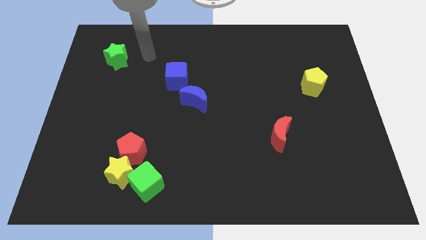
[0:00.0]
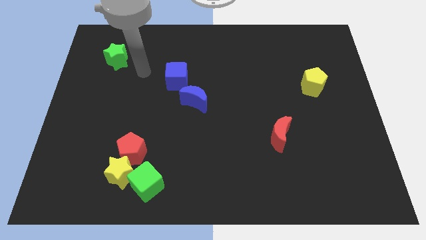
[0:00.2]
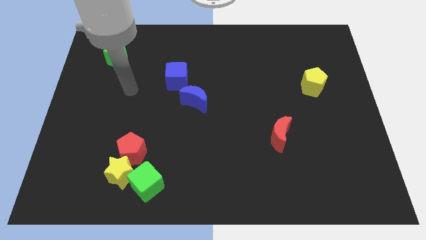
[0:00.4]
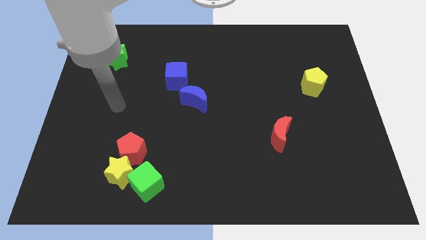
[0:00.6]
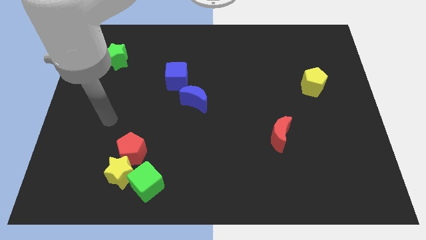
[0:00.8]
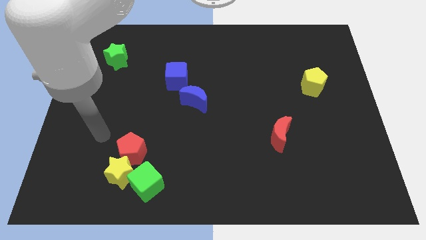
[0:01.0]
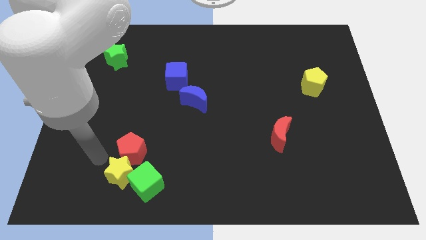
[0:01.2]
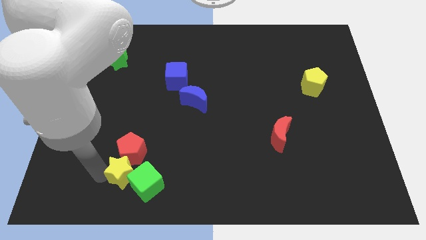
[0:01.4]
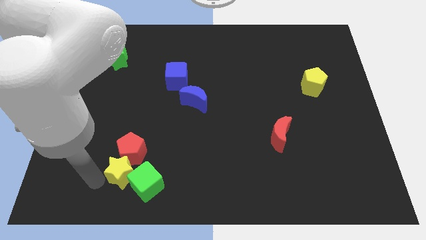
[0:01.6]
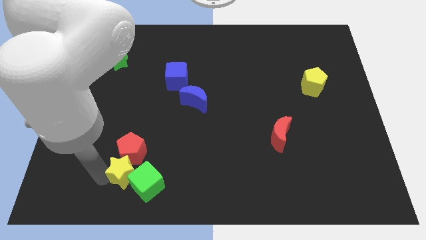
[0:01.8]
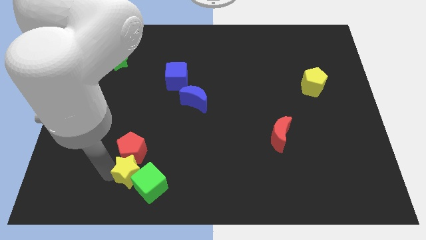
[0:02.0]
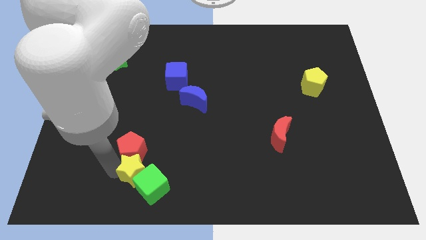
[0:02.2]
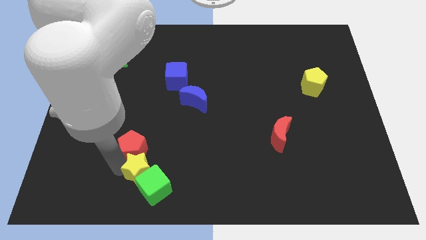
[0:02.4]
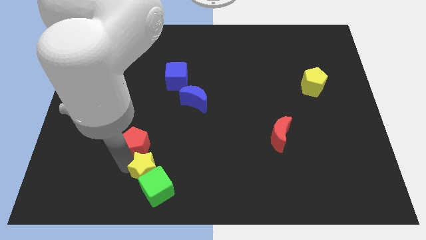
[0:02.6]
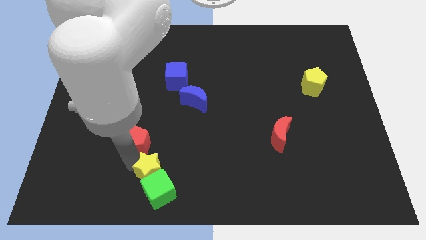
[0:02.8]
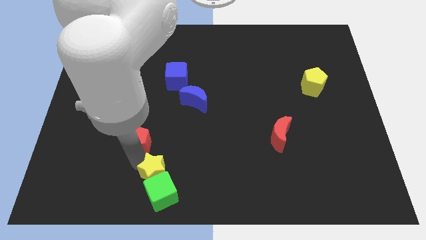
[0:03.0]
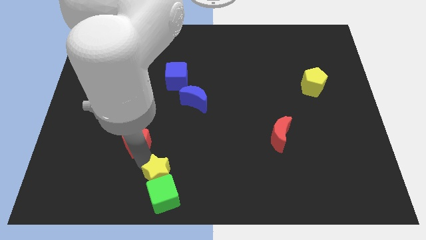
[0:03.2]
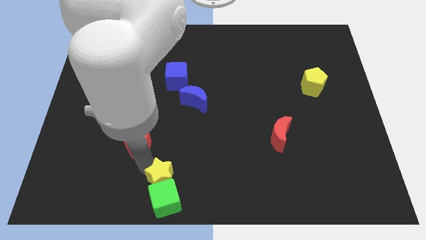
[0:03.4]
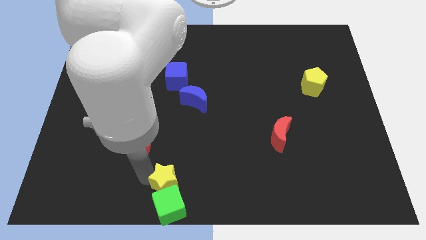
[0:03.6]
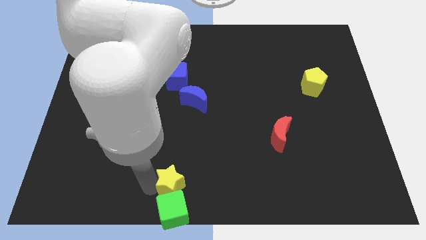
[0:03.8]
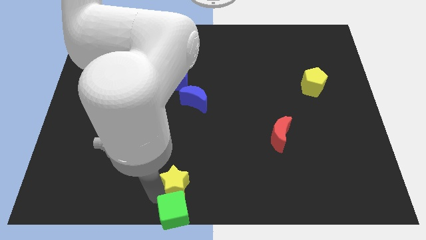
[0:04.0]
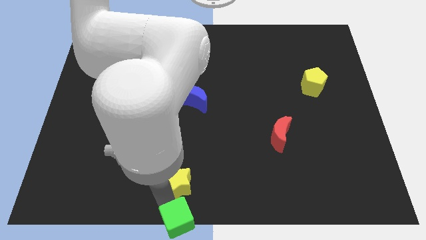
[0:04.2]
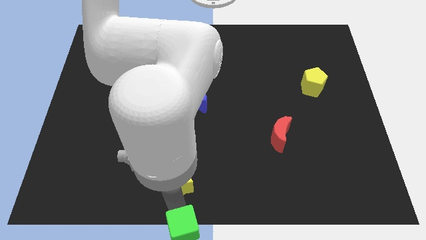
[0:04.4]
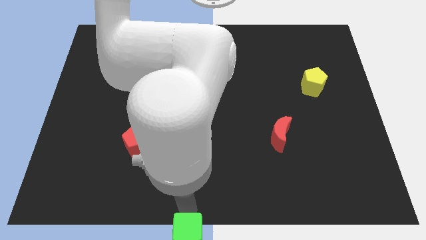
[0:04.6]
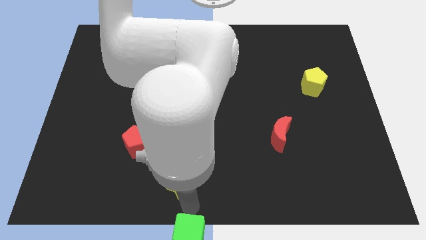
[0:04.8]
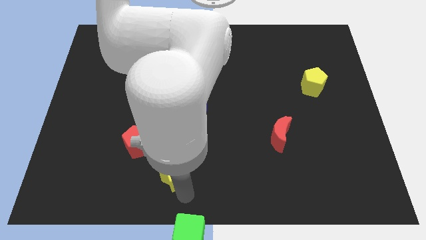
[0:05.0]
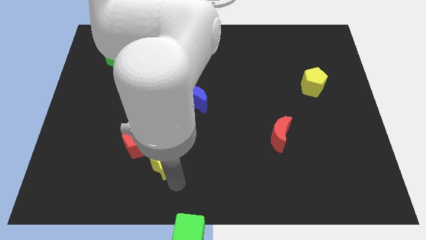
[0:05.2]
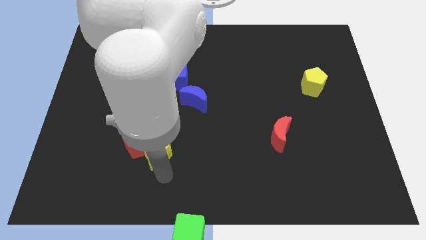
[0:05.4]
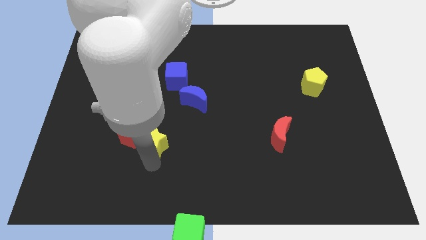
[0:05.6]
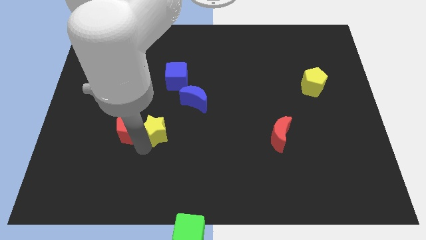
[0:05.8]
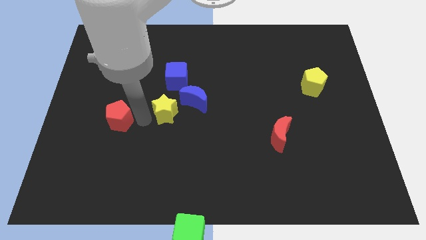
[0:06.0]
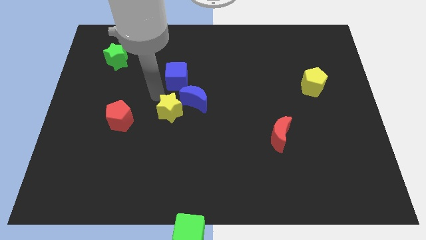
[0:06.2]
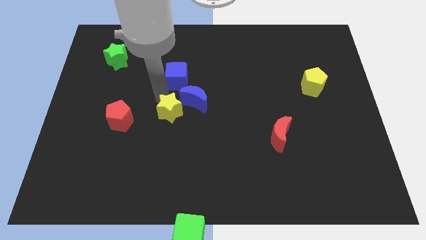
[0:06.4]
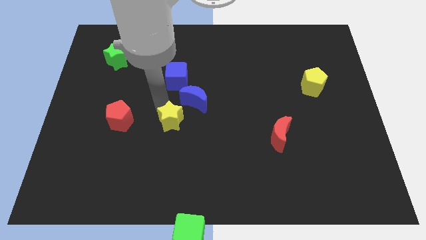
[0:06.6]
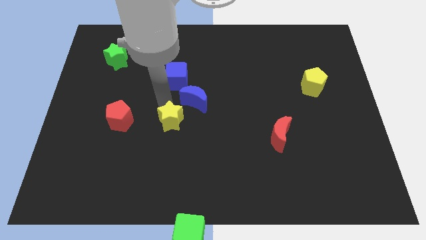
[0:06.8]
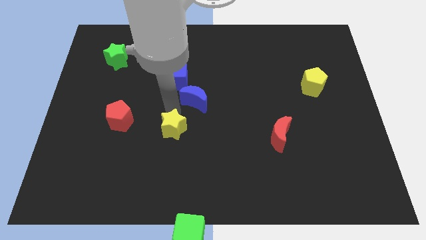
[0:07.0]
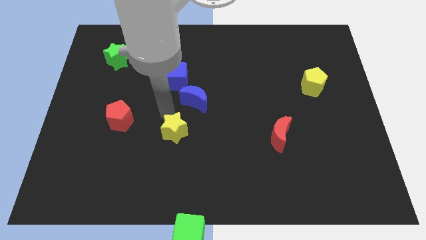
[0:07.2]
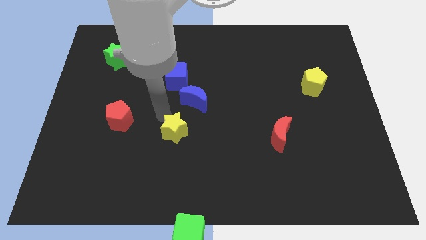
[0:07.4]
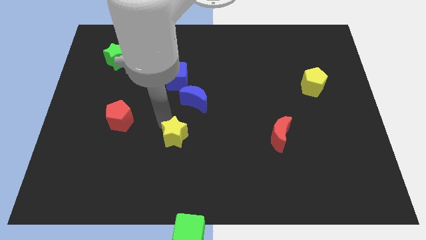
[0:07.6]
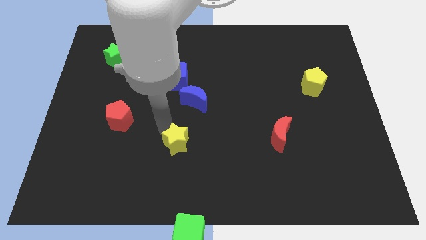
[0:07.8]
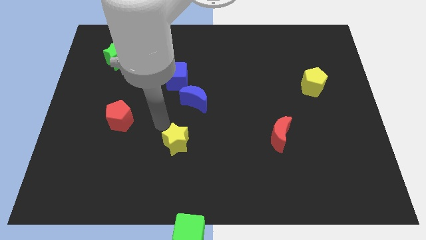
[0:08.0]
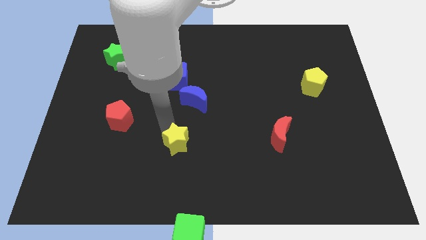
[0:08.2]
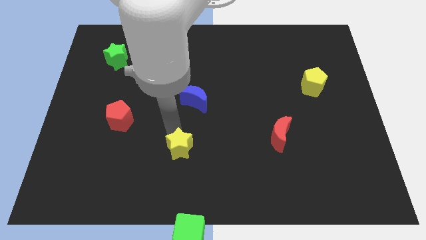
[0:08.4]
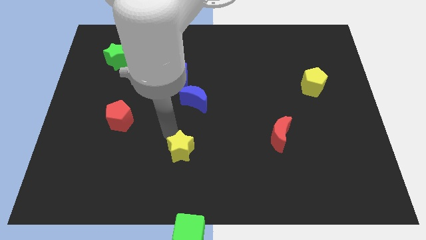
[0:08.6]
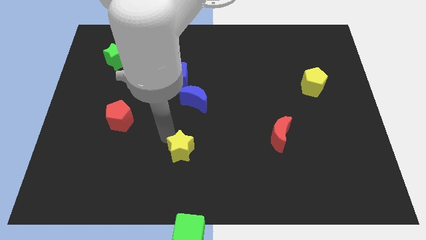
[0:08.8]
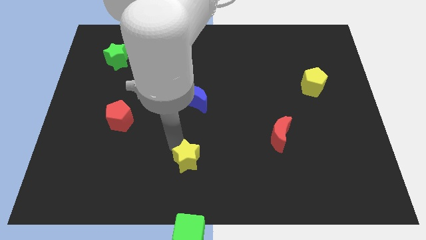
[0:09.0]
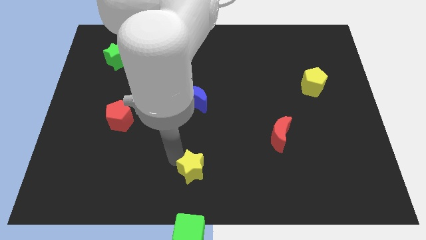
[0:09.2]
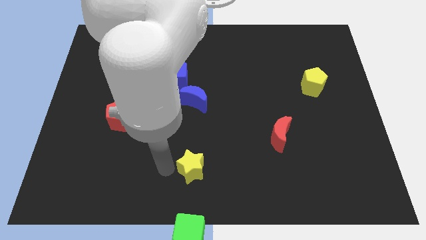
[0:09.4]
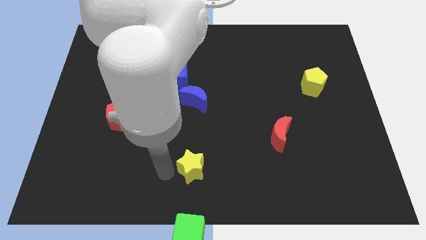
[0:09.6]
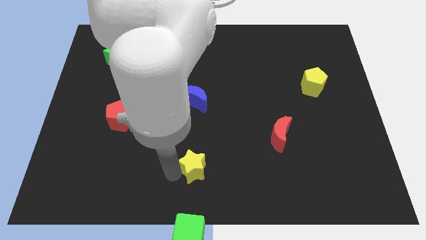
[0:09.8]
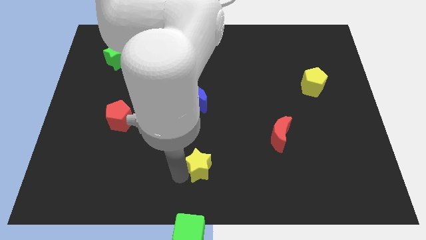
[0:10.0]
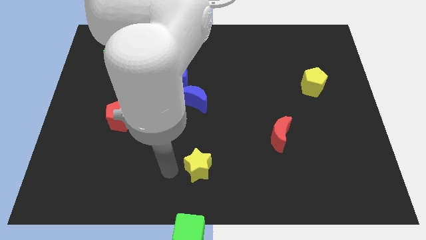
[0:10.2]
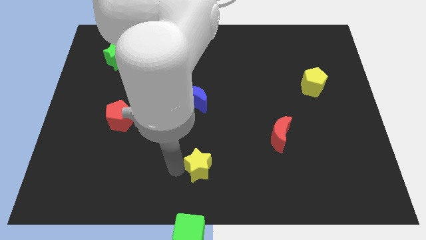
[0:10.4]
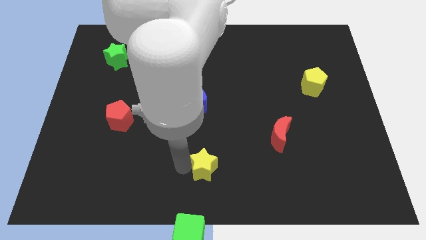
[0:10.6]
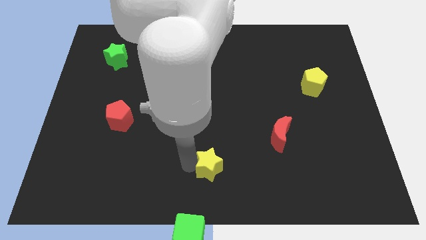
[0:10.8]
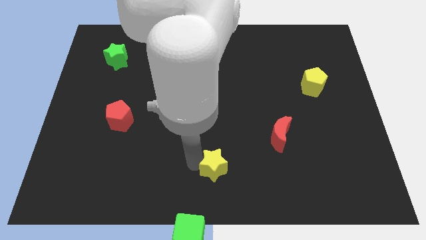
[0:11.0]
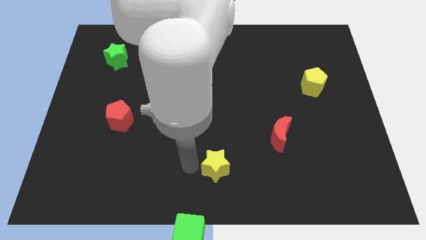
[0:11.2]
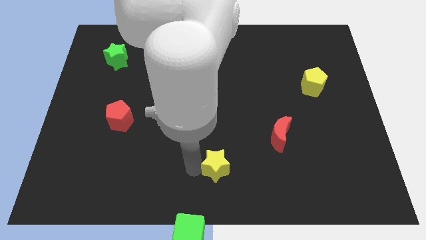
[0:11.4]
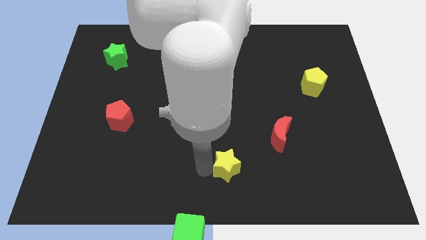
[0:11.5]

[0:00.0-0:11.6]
move the yellow star to the right

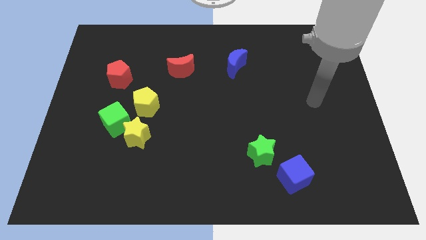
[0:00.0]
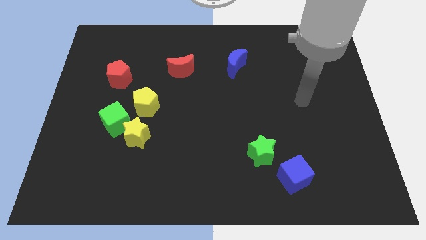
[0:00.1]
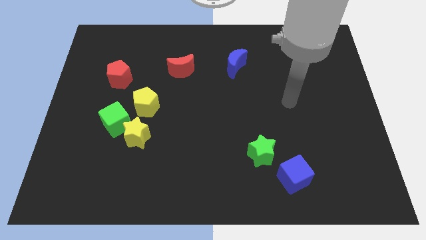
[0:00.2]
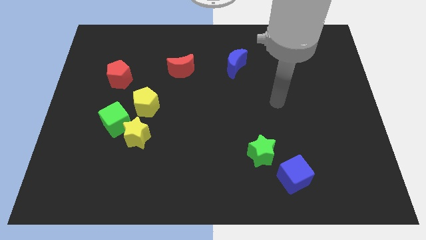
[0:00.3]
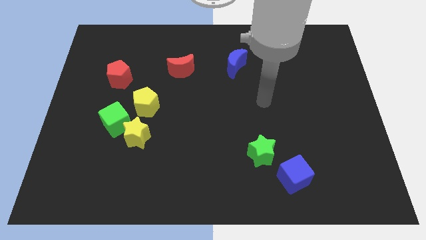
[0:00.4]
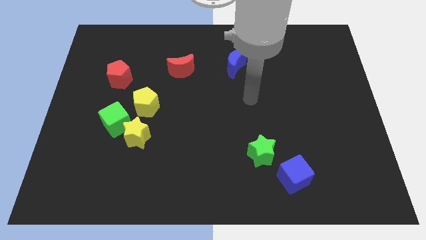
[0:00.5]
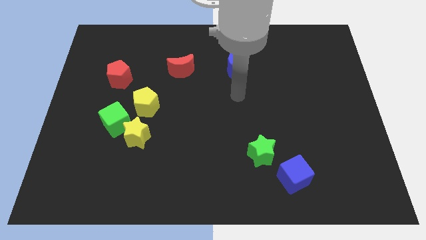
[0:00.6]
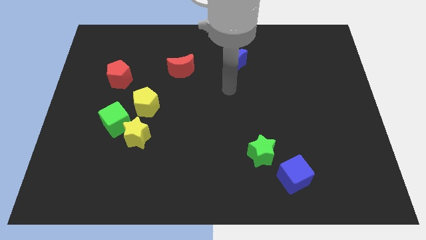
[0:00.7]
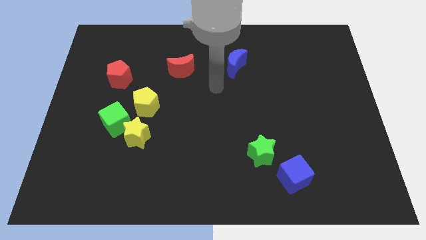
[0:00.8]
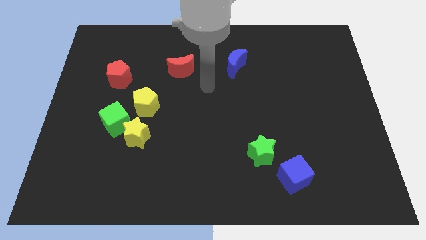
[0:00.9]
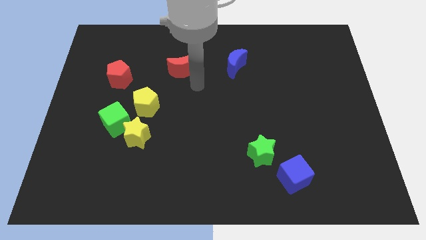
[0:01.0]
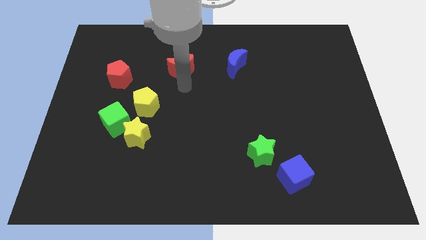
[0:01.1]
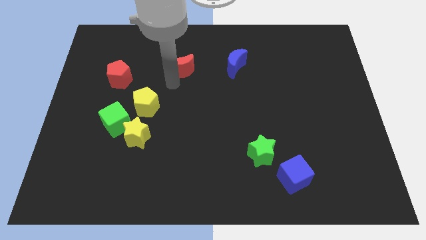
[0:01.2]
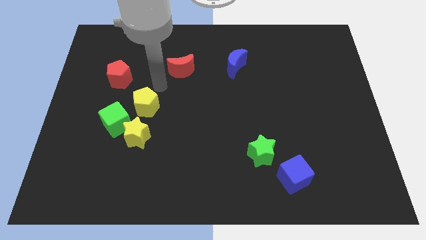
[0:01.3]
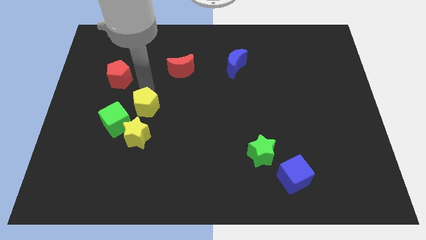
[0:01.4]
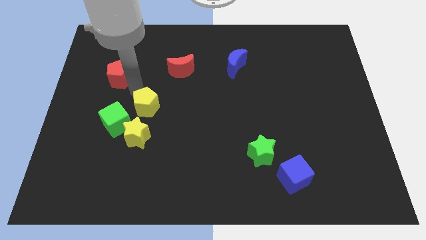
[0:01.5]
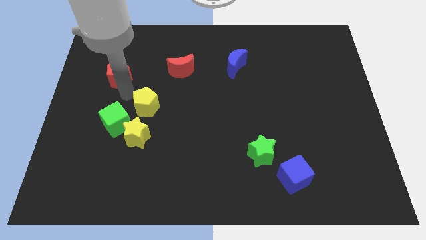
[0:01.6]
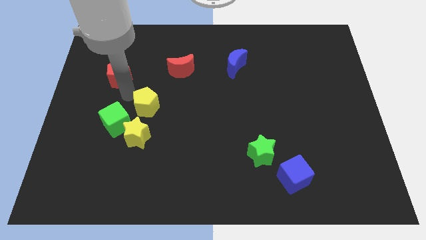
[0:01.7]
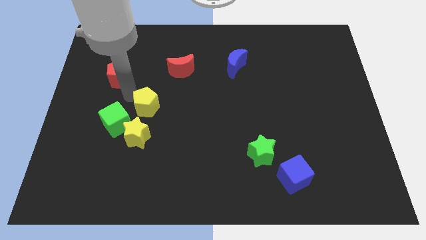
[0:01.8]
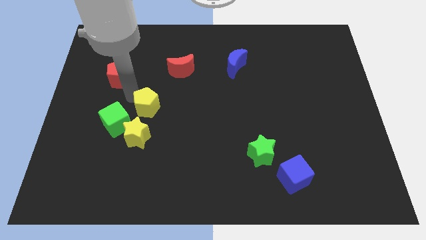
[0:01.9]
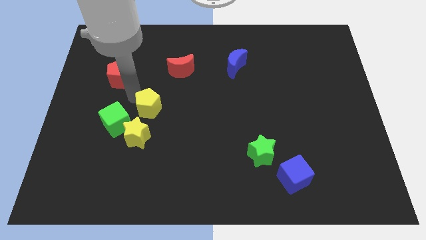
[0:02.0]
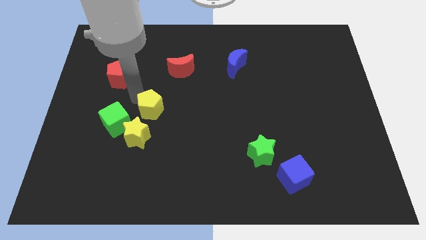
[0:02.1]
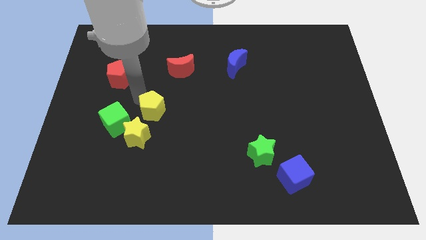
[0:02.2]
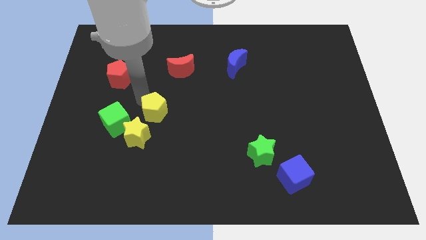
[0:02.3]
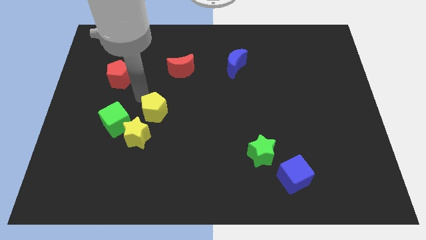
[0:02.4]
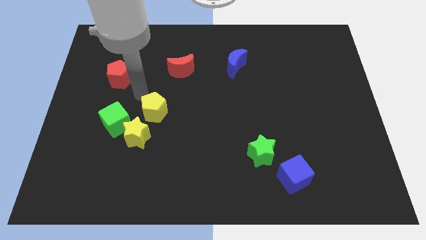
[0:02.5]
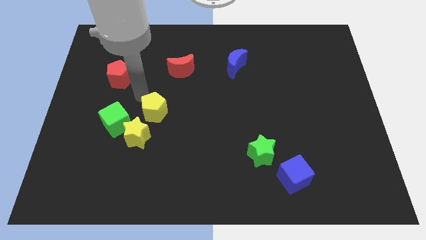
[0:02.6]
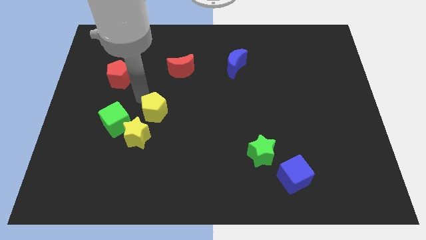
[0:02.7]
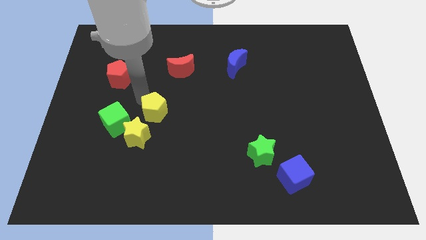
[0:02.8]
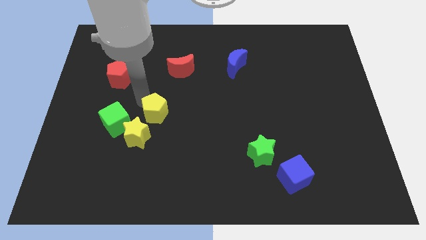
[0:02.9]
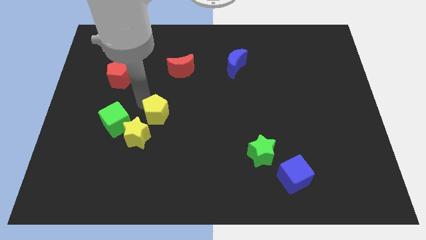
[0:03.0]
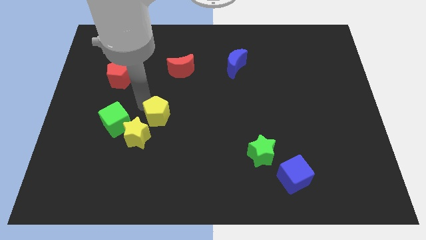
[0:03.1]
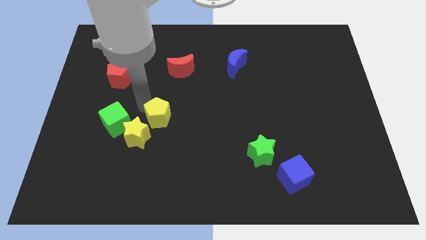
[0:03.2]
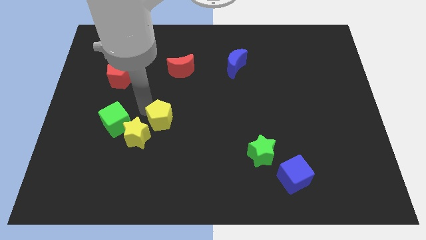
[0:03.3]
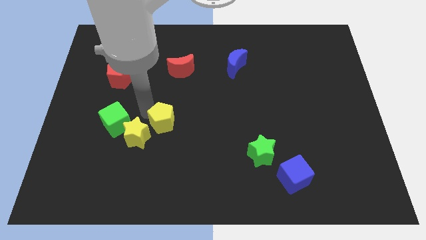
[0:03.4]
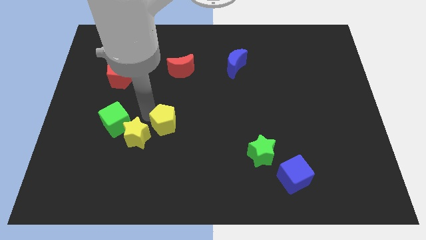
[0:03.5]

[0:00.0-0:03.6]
slightly slide the yellow pentagon downwards and to the right
